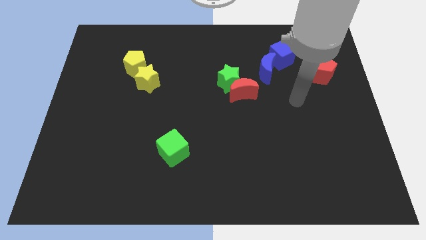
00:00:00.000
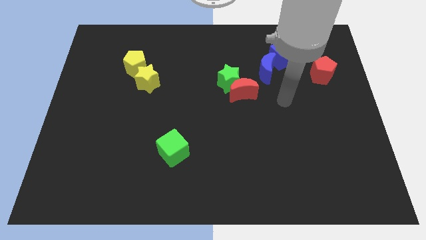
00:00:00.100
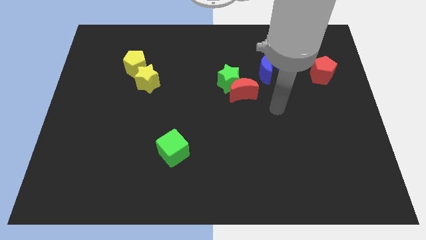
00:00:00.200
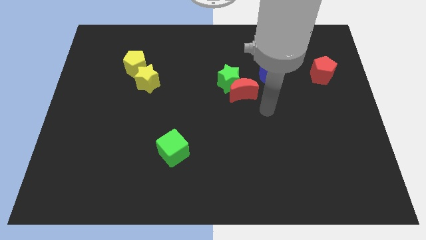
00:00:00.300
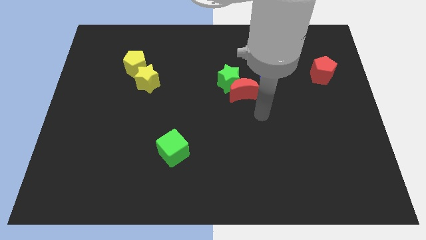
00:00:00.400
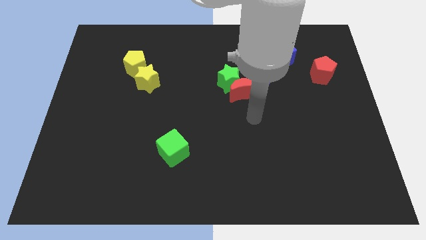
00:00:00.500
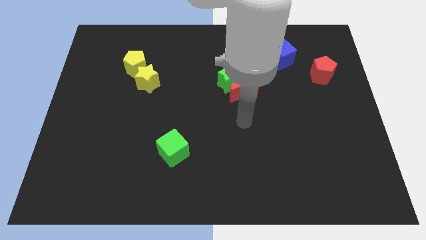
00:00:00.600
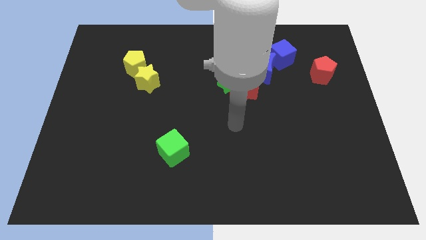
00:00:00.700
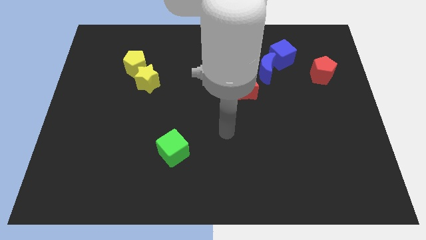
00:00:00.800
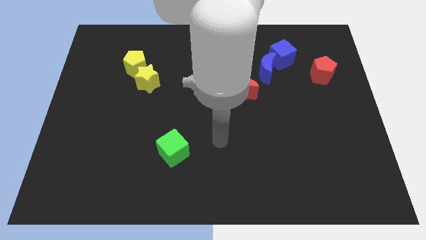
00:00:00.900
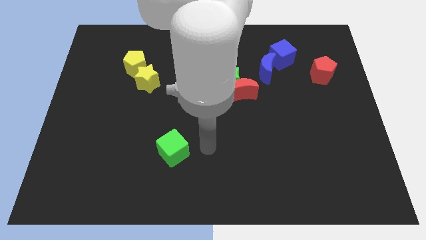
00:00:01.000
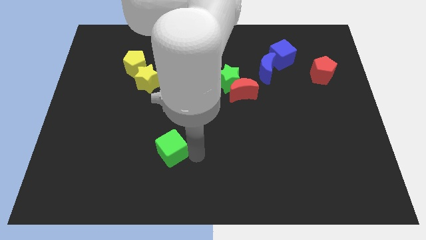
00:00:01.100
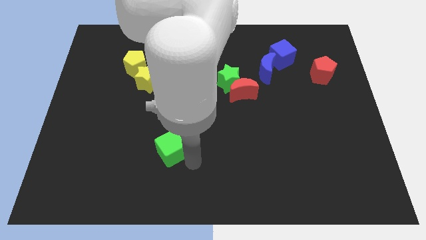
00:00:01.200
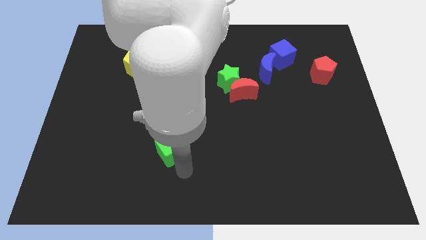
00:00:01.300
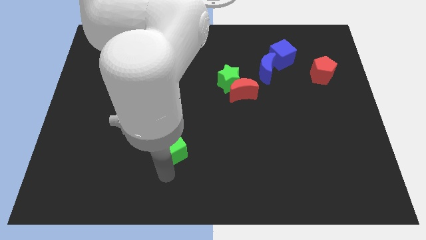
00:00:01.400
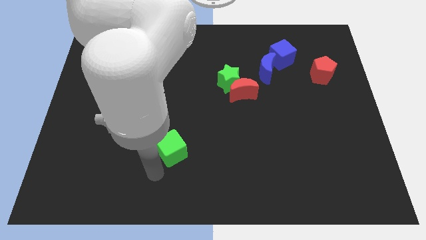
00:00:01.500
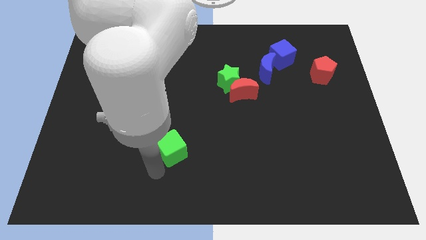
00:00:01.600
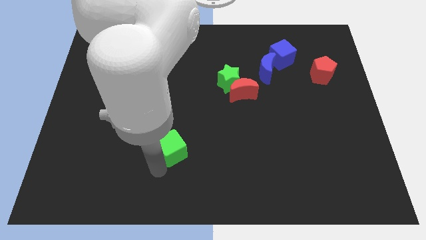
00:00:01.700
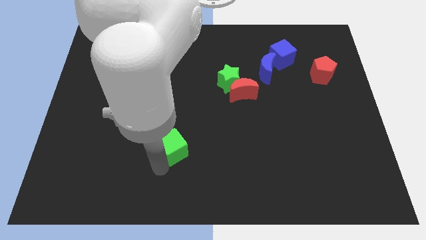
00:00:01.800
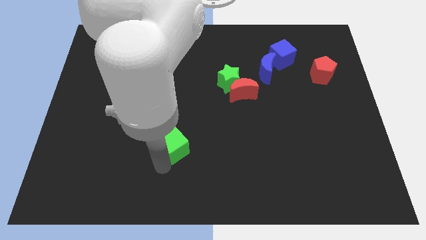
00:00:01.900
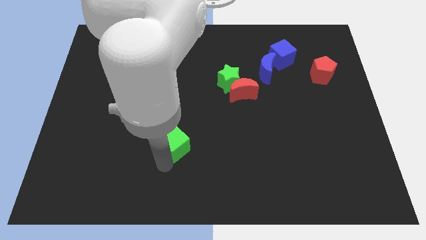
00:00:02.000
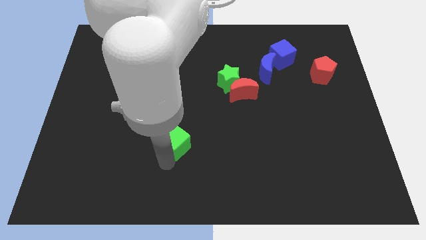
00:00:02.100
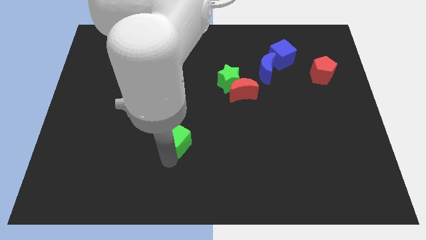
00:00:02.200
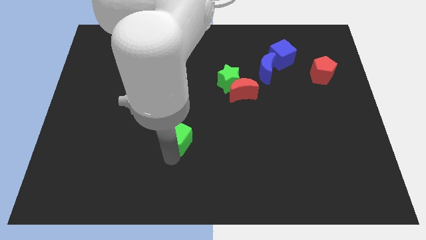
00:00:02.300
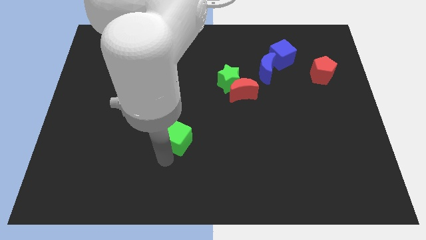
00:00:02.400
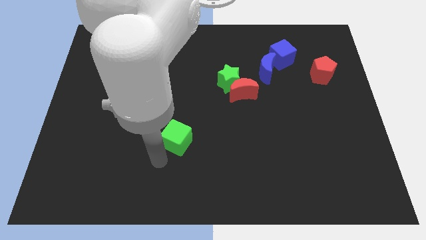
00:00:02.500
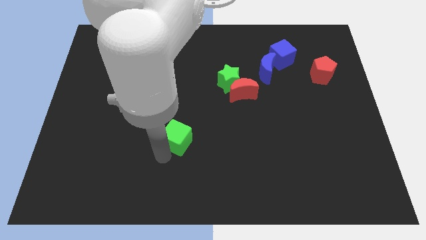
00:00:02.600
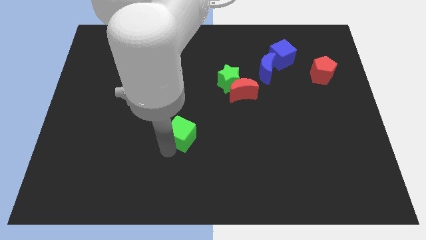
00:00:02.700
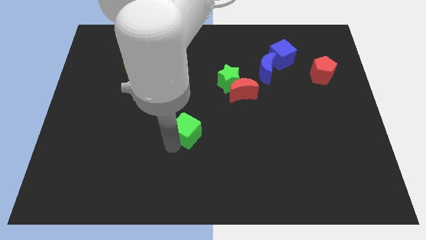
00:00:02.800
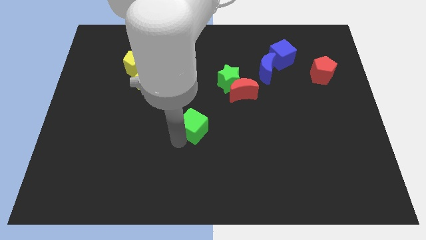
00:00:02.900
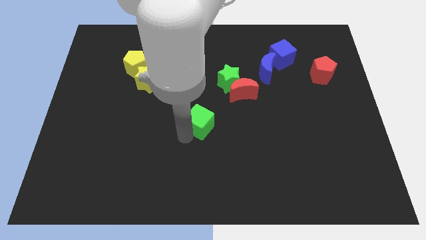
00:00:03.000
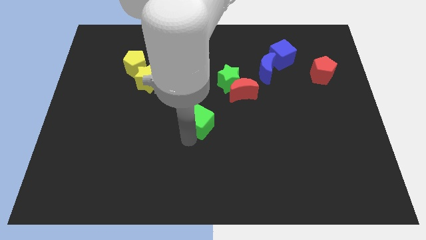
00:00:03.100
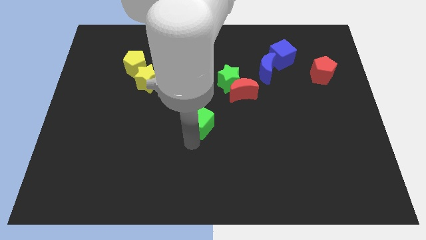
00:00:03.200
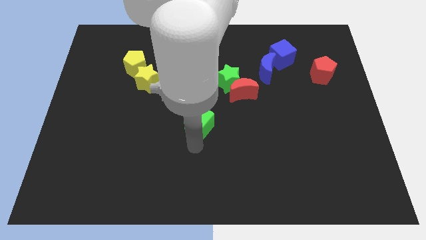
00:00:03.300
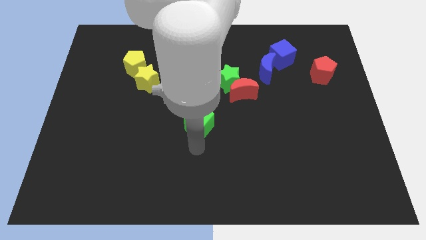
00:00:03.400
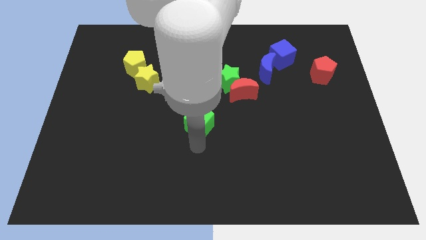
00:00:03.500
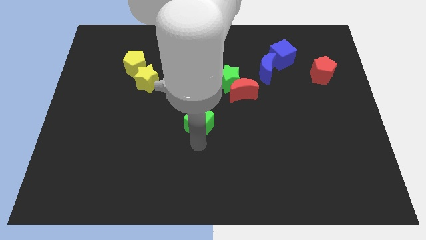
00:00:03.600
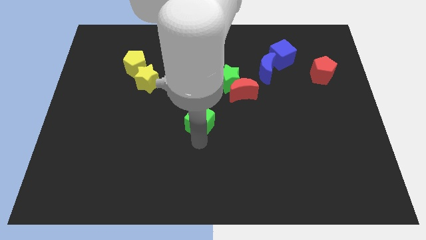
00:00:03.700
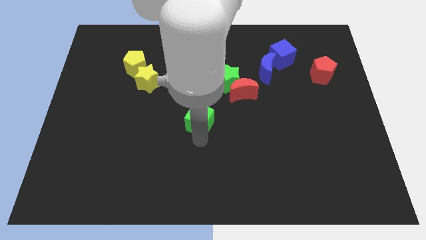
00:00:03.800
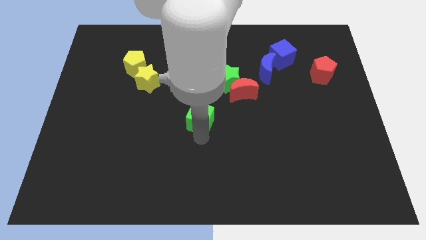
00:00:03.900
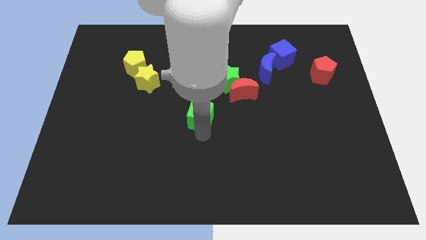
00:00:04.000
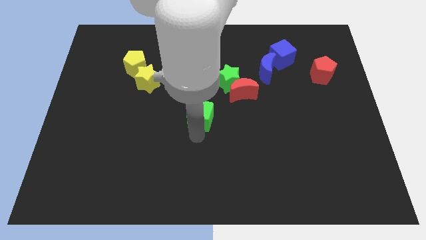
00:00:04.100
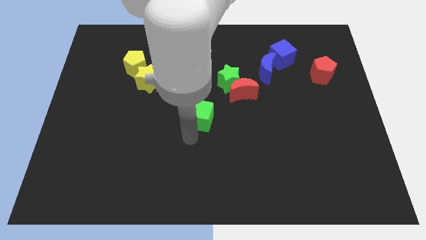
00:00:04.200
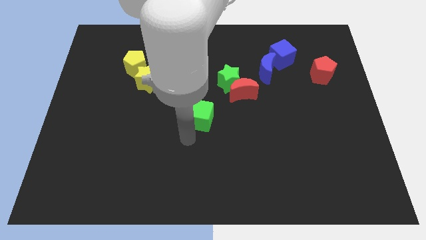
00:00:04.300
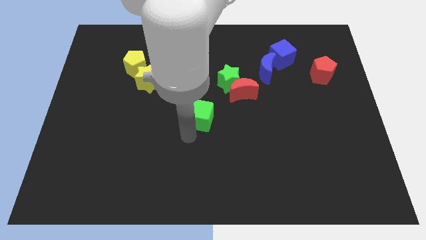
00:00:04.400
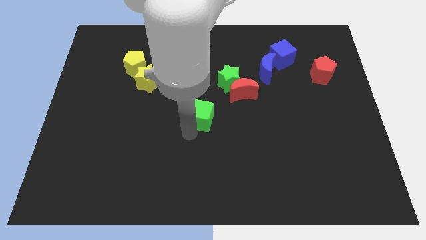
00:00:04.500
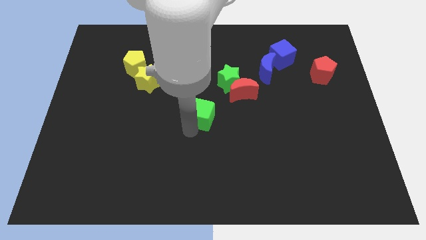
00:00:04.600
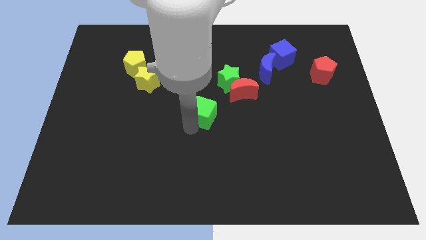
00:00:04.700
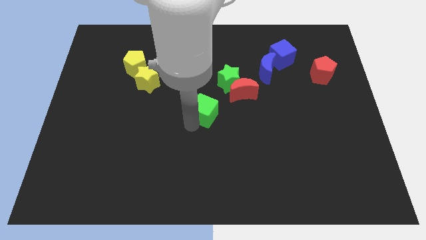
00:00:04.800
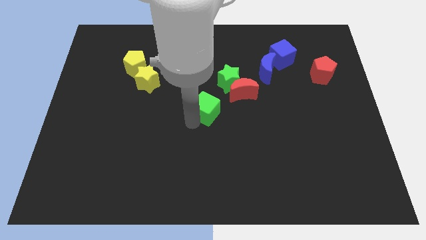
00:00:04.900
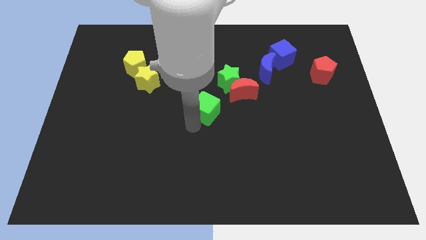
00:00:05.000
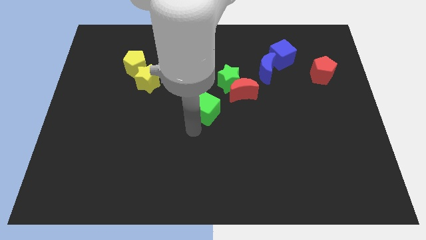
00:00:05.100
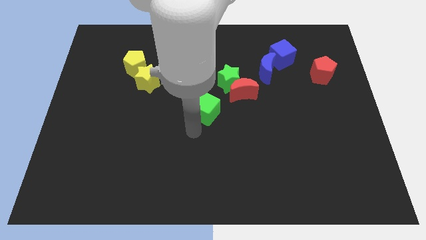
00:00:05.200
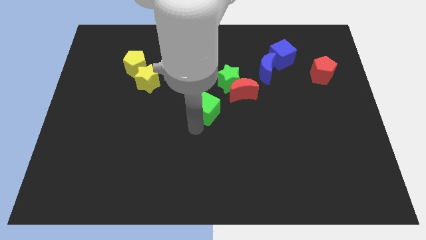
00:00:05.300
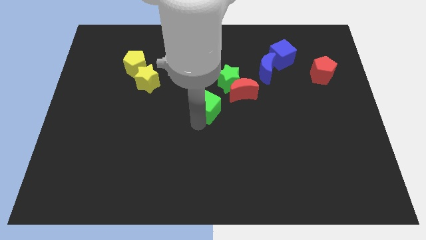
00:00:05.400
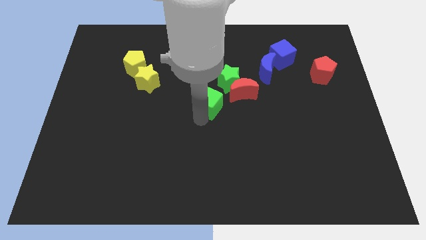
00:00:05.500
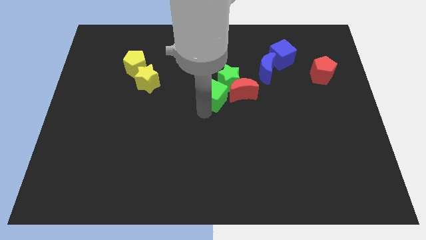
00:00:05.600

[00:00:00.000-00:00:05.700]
move the green cube towards the green star

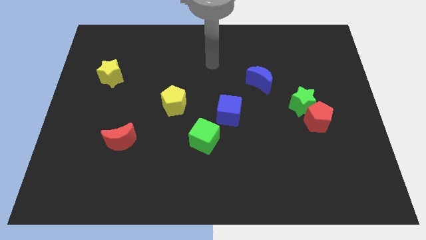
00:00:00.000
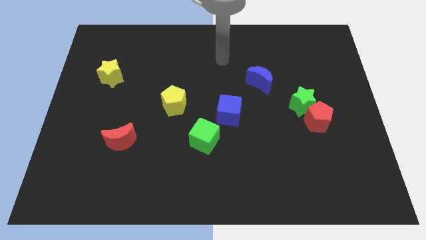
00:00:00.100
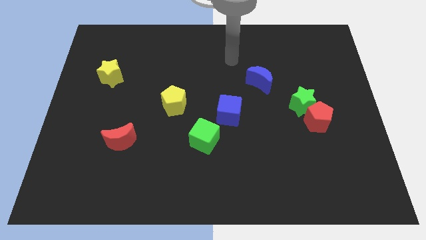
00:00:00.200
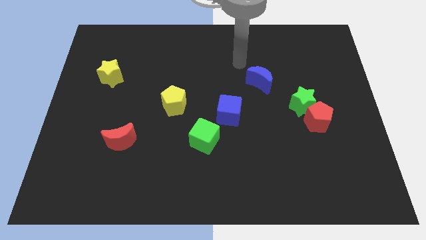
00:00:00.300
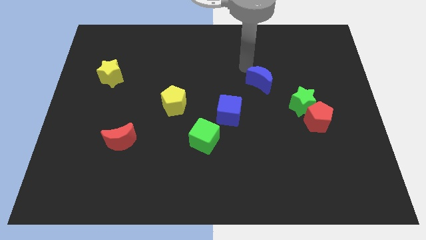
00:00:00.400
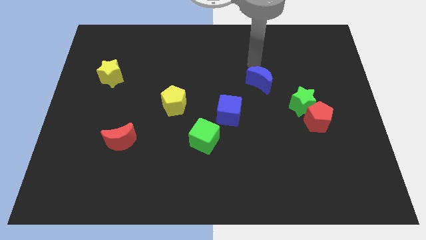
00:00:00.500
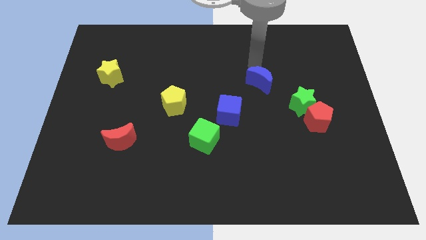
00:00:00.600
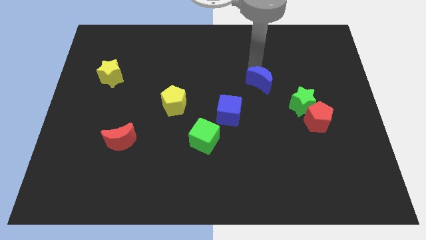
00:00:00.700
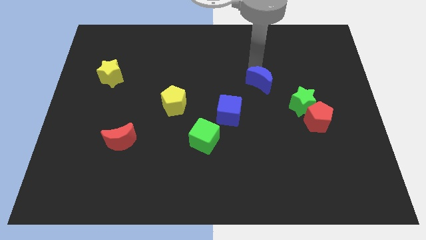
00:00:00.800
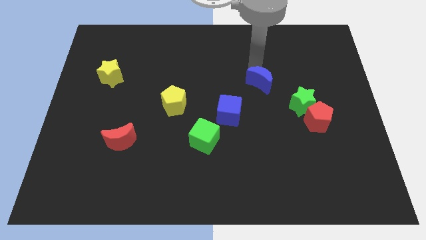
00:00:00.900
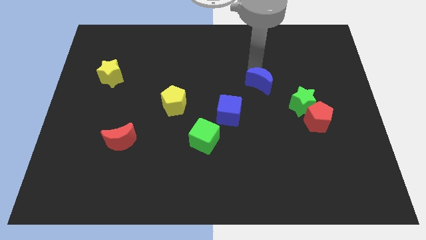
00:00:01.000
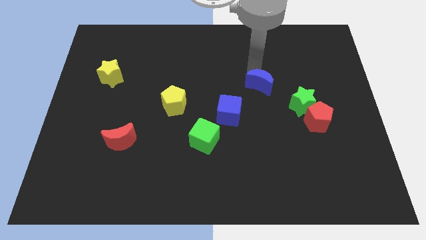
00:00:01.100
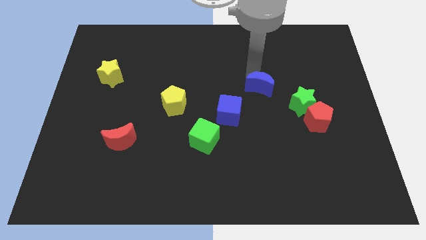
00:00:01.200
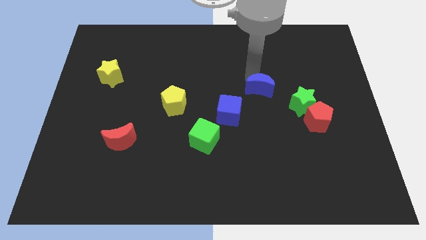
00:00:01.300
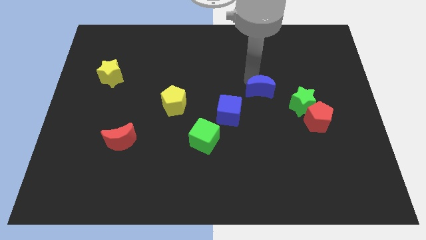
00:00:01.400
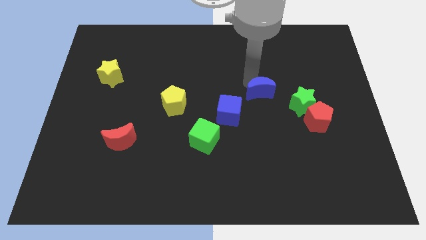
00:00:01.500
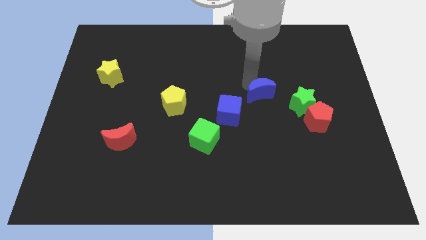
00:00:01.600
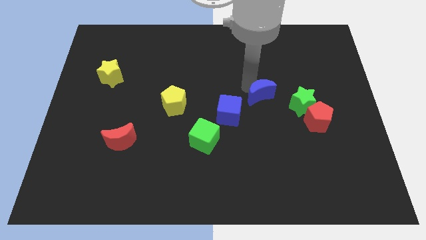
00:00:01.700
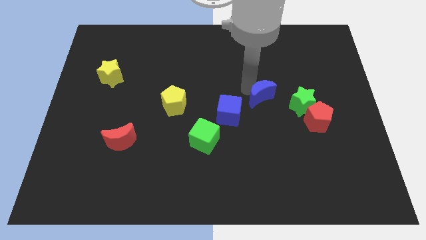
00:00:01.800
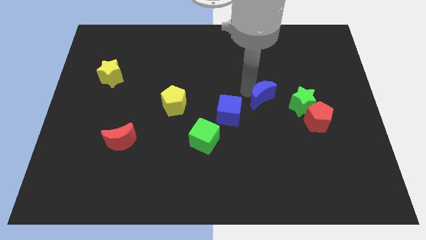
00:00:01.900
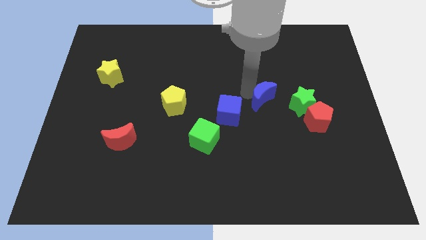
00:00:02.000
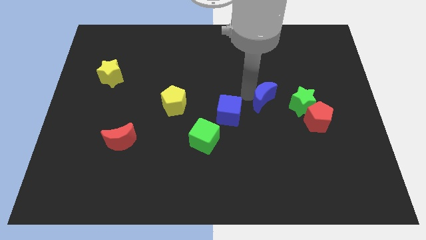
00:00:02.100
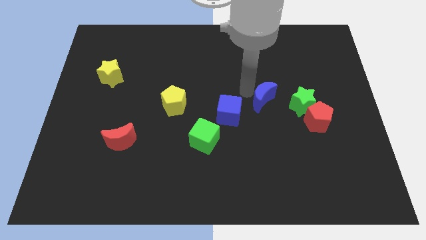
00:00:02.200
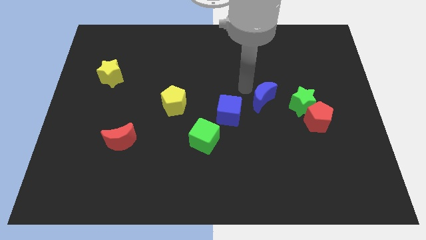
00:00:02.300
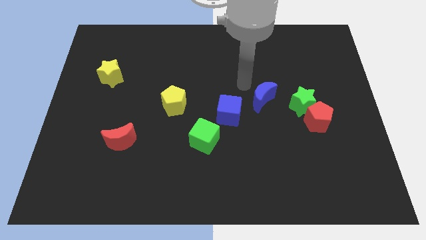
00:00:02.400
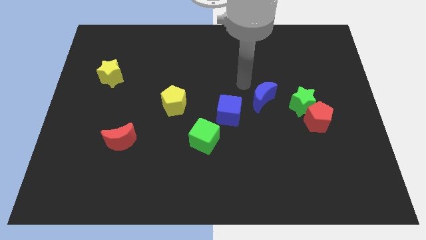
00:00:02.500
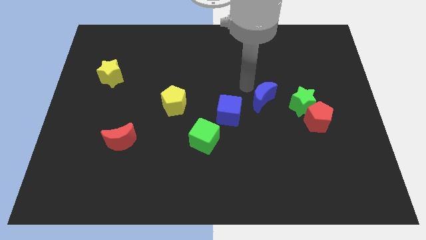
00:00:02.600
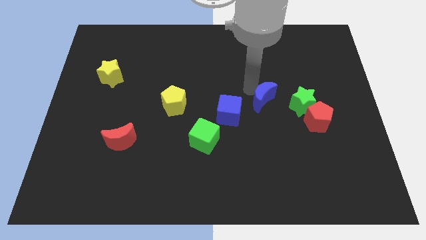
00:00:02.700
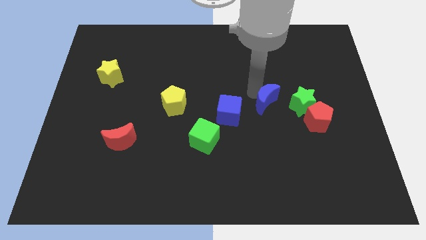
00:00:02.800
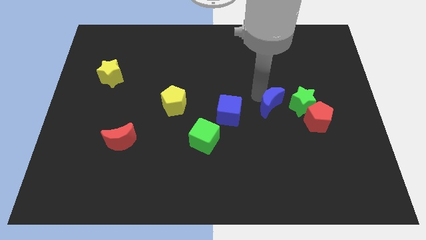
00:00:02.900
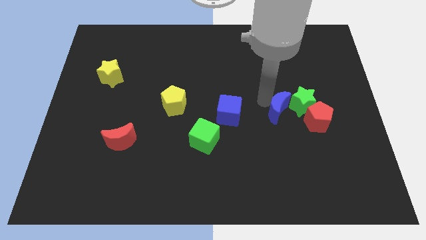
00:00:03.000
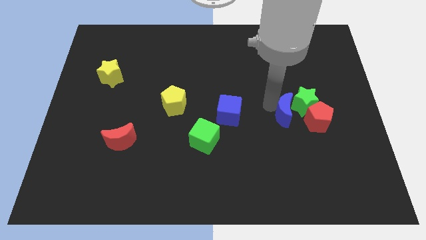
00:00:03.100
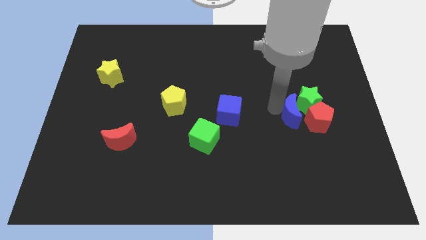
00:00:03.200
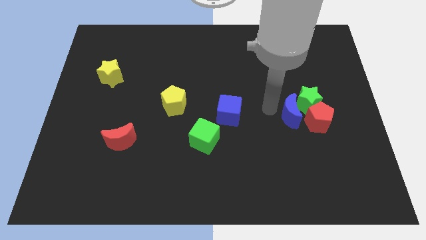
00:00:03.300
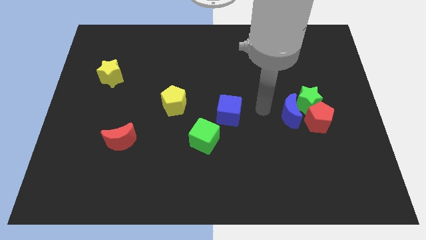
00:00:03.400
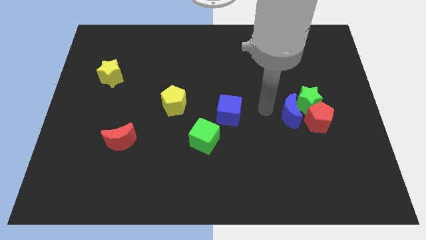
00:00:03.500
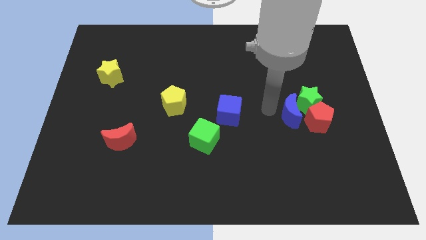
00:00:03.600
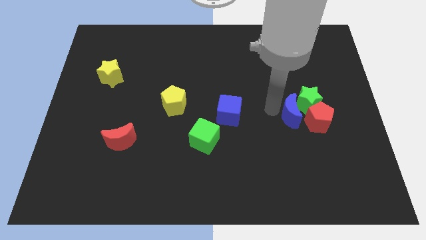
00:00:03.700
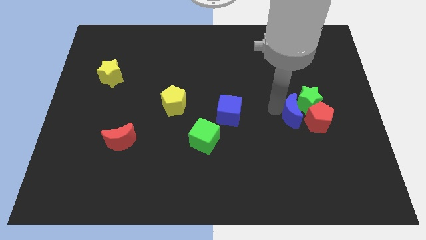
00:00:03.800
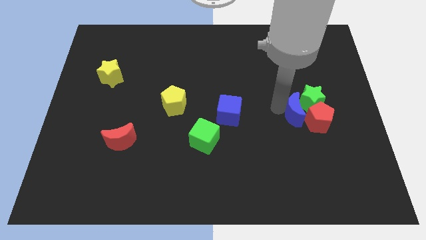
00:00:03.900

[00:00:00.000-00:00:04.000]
slide the blue moon towards the red pentagon
